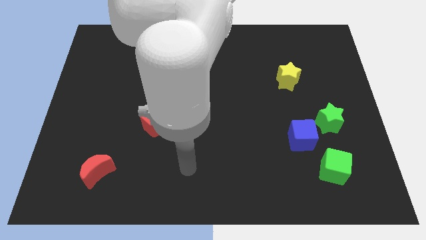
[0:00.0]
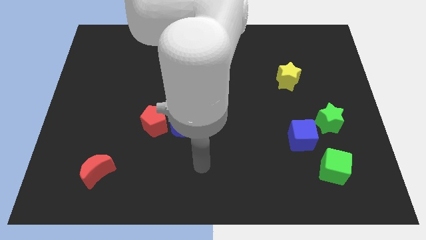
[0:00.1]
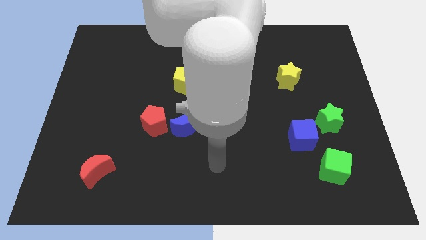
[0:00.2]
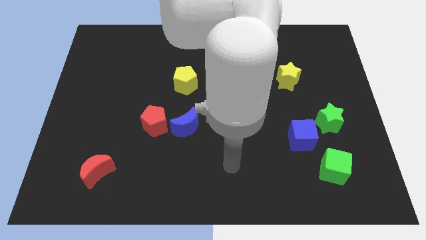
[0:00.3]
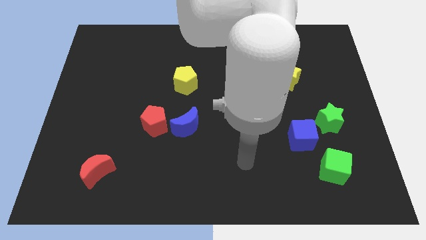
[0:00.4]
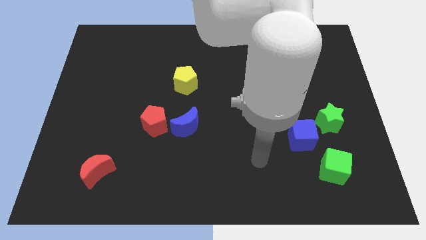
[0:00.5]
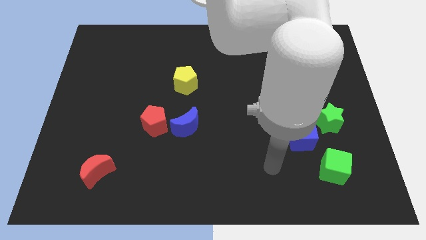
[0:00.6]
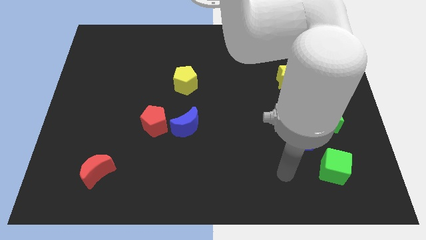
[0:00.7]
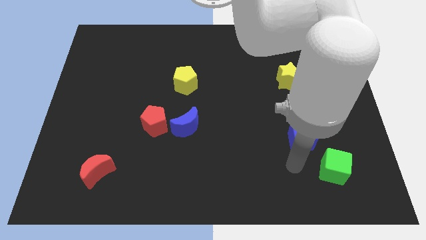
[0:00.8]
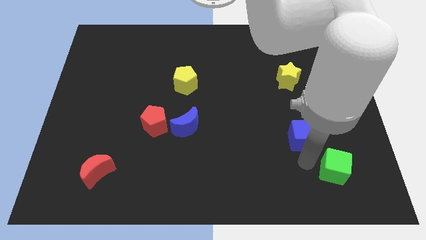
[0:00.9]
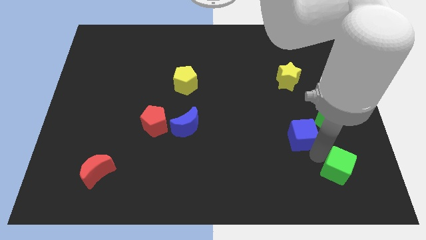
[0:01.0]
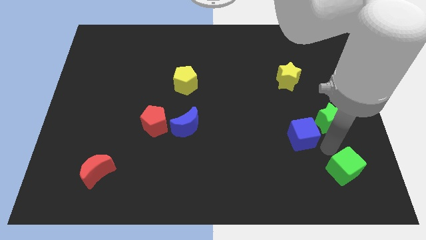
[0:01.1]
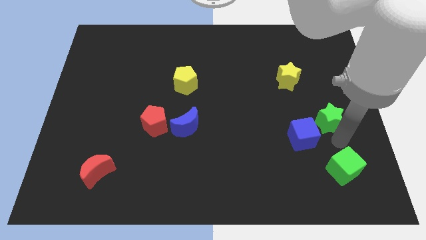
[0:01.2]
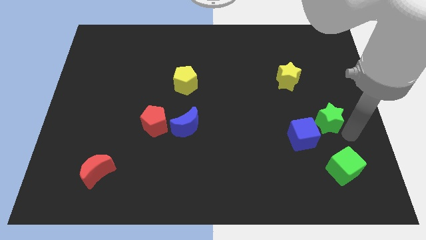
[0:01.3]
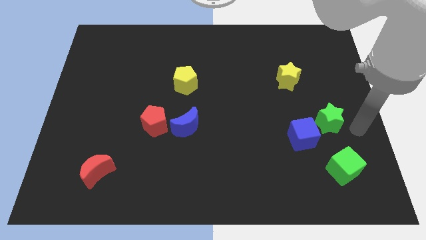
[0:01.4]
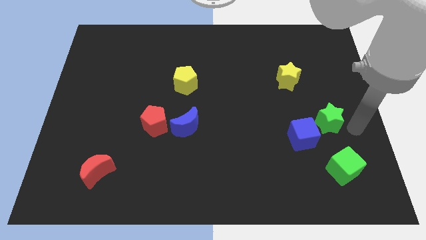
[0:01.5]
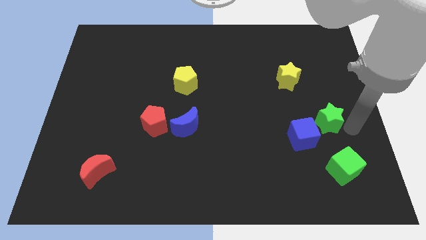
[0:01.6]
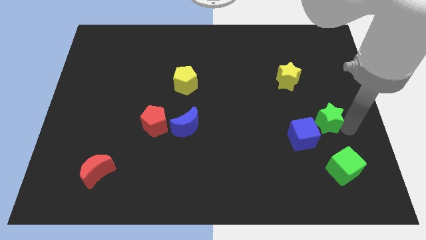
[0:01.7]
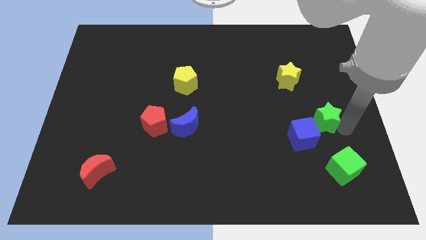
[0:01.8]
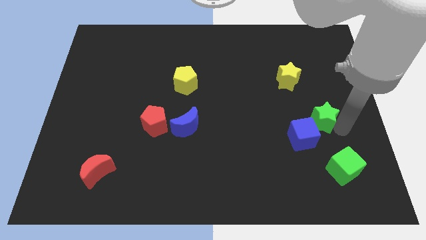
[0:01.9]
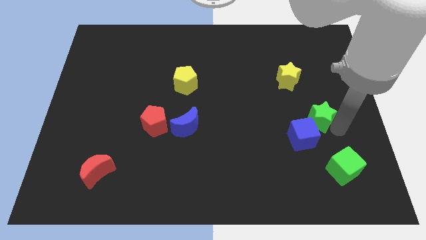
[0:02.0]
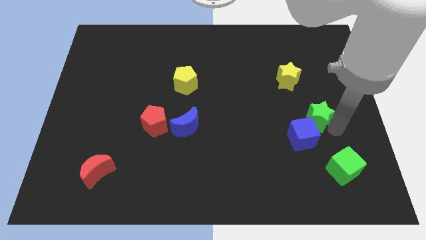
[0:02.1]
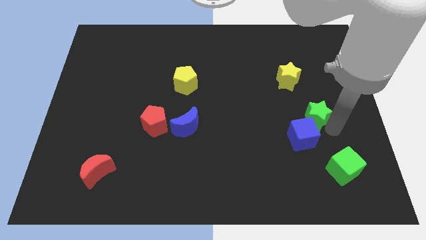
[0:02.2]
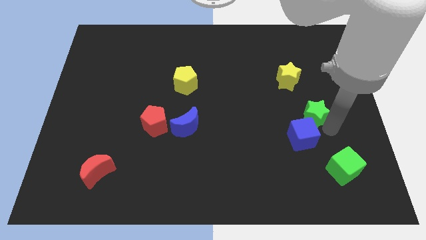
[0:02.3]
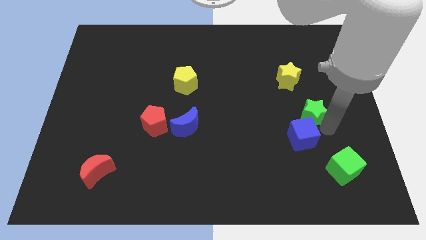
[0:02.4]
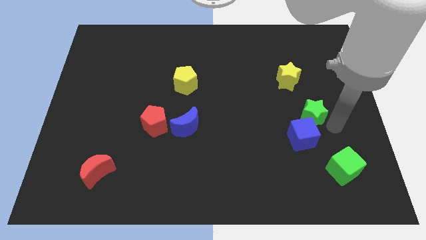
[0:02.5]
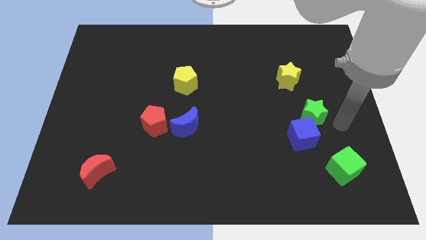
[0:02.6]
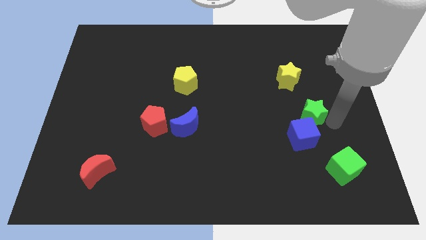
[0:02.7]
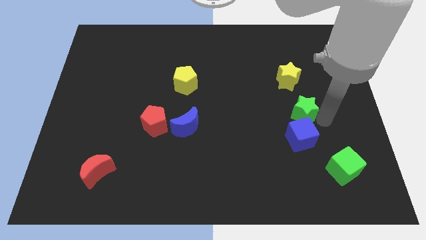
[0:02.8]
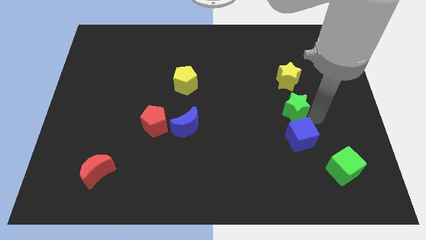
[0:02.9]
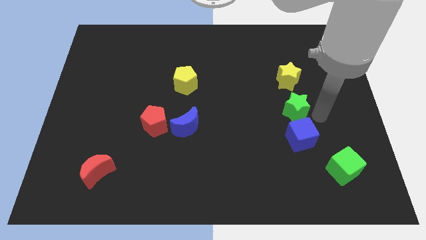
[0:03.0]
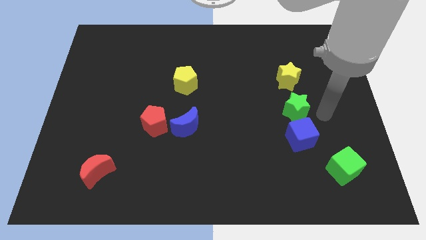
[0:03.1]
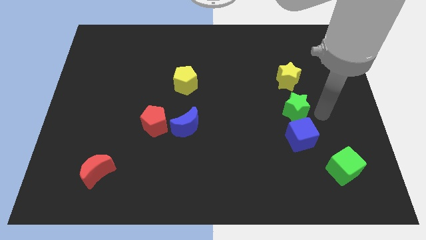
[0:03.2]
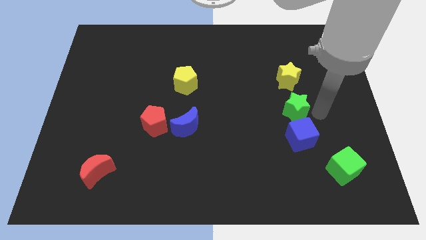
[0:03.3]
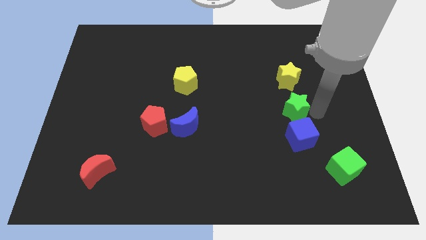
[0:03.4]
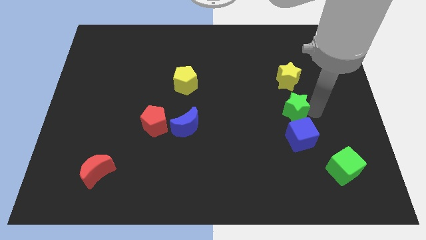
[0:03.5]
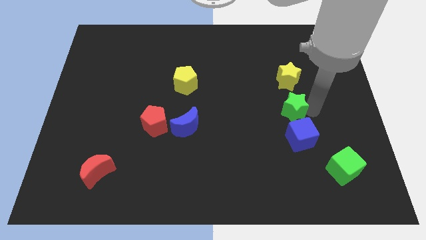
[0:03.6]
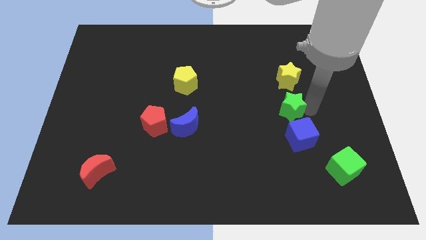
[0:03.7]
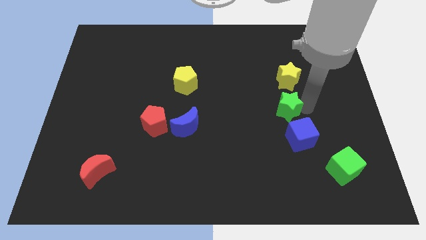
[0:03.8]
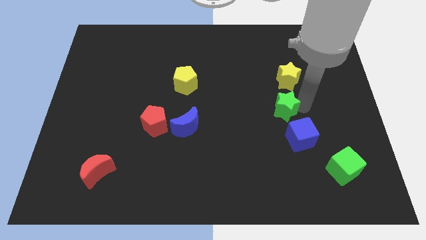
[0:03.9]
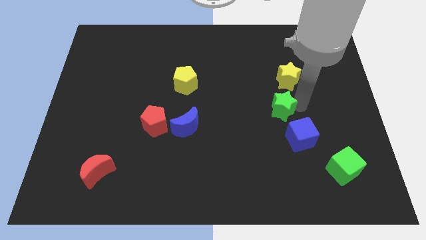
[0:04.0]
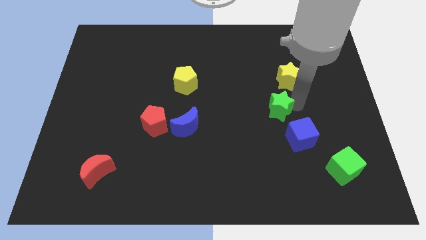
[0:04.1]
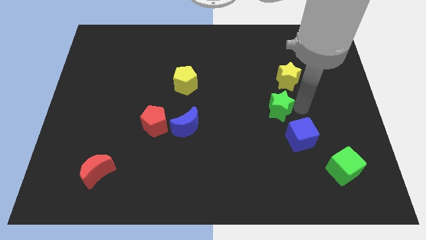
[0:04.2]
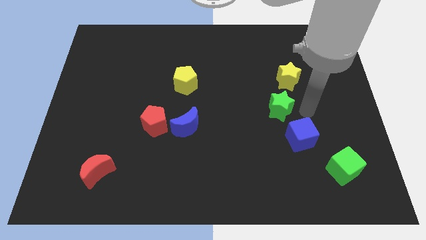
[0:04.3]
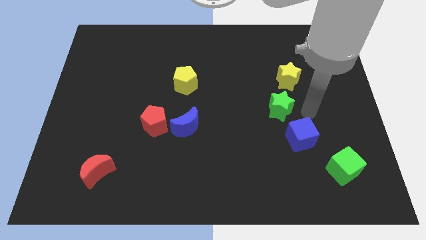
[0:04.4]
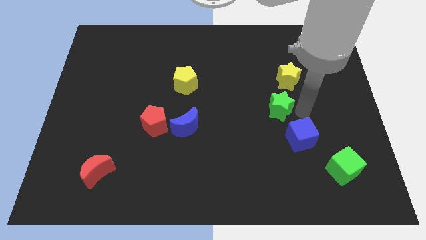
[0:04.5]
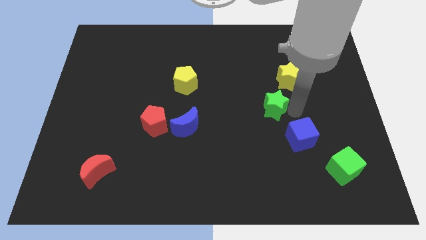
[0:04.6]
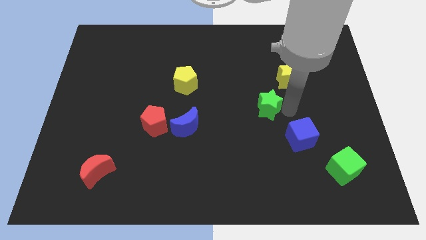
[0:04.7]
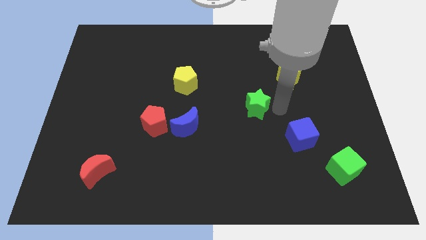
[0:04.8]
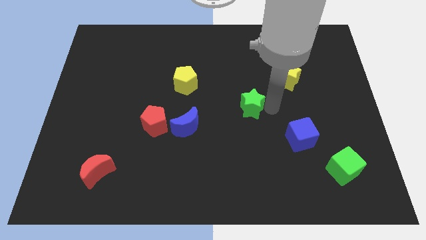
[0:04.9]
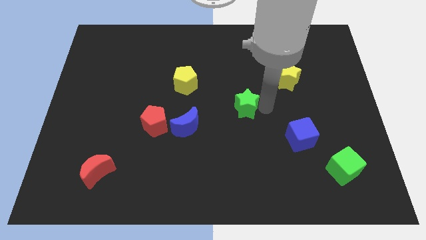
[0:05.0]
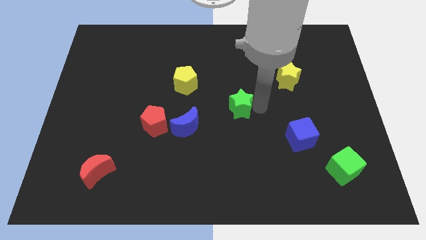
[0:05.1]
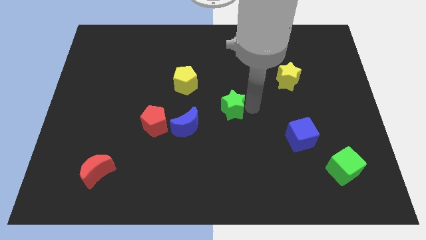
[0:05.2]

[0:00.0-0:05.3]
slide the green star to the top right side of the blue moon

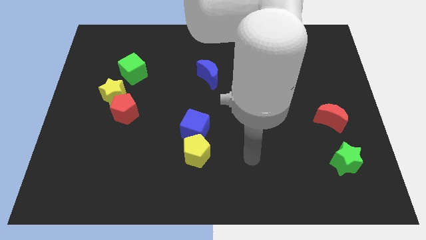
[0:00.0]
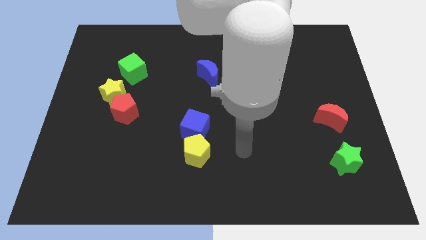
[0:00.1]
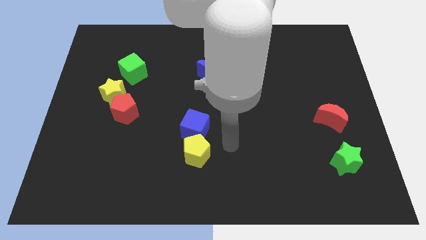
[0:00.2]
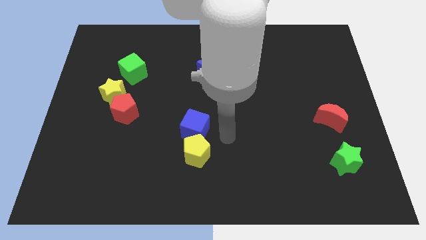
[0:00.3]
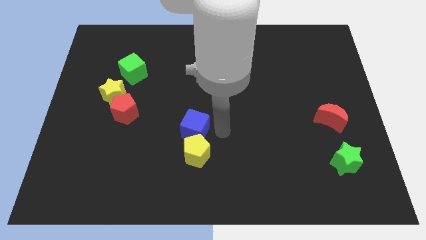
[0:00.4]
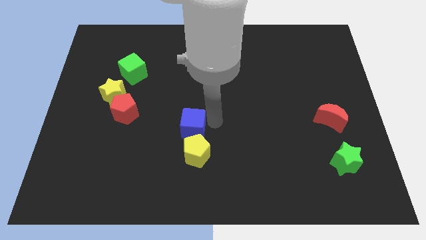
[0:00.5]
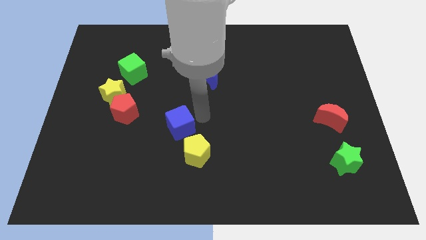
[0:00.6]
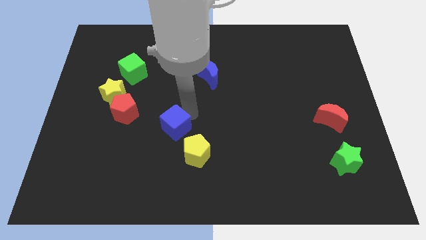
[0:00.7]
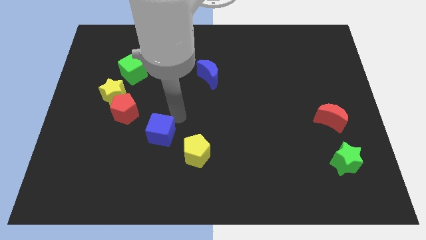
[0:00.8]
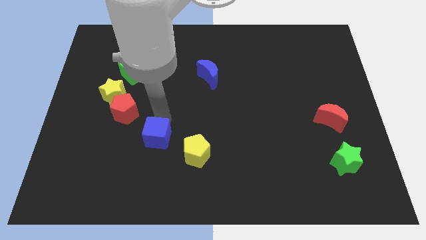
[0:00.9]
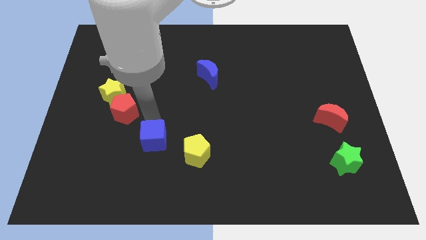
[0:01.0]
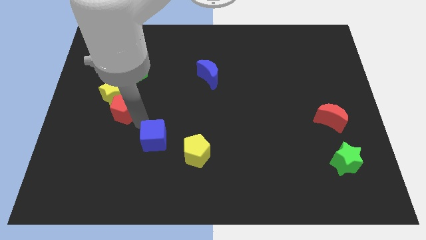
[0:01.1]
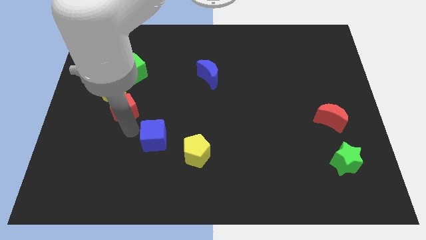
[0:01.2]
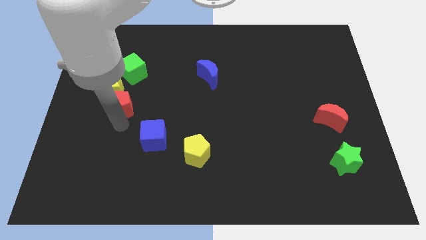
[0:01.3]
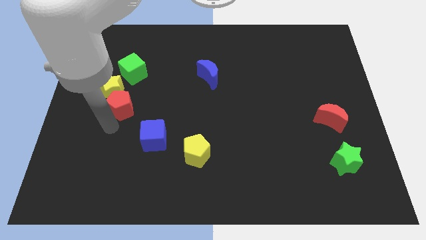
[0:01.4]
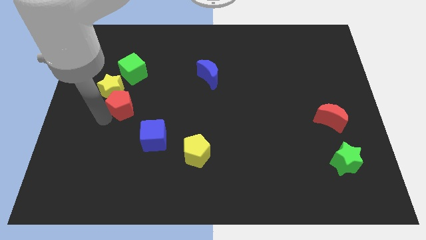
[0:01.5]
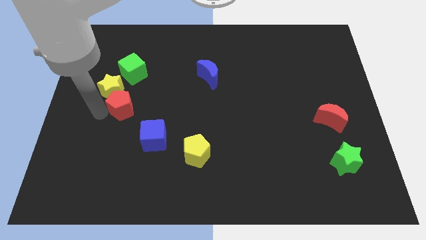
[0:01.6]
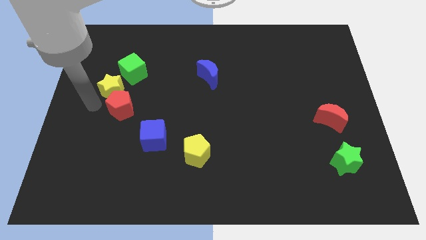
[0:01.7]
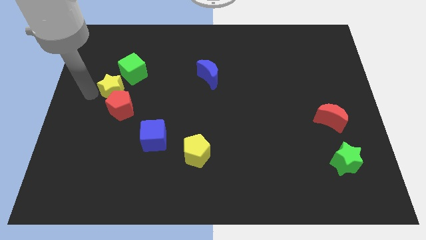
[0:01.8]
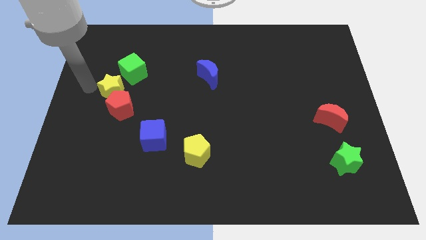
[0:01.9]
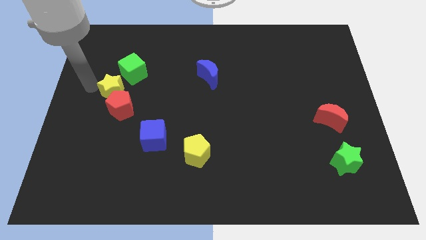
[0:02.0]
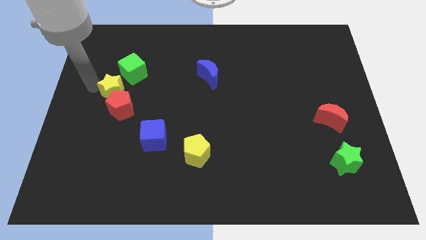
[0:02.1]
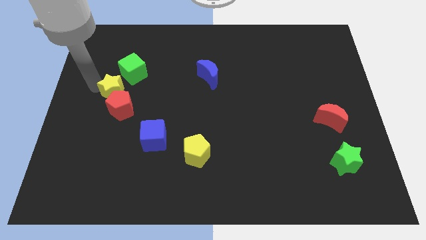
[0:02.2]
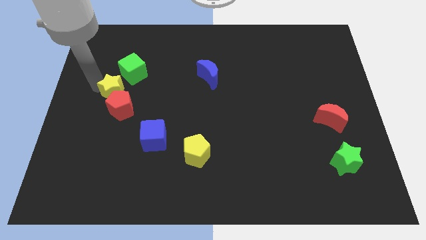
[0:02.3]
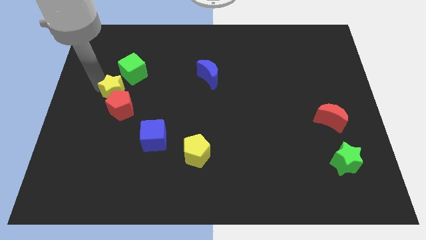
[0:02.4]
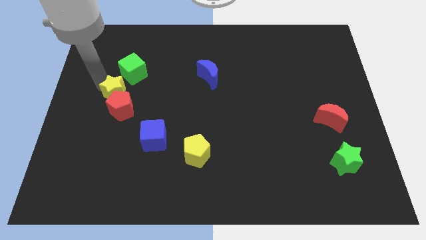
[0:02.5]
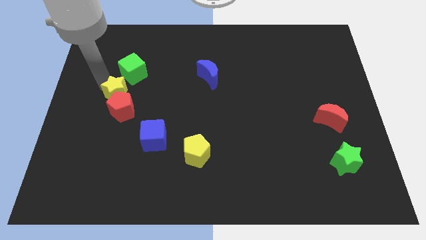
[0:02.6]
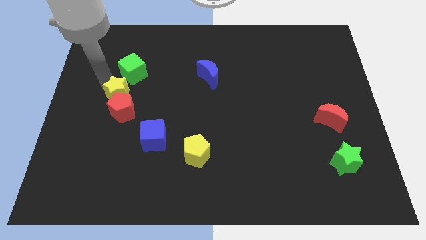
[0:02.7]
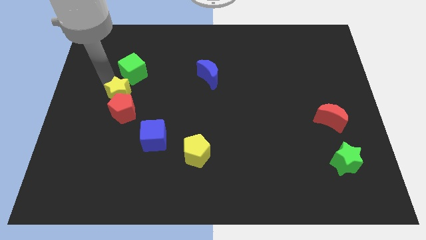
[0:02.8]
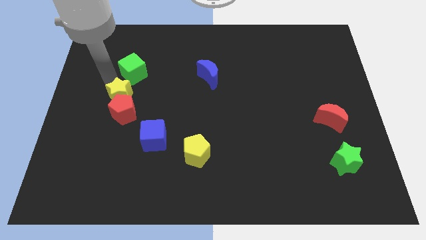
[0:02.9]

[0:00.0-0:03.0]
push the yellow star to the top right of the red pentagon
